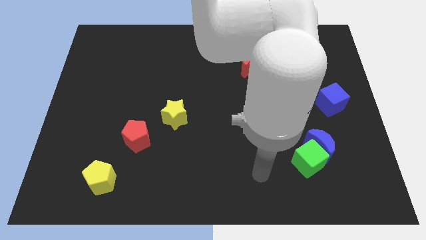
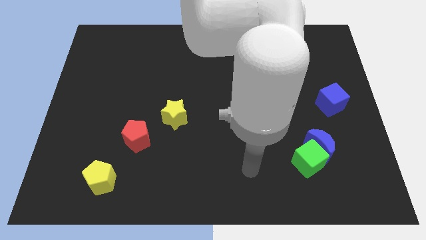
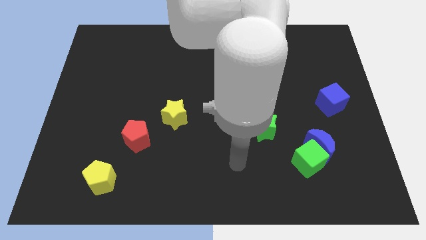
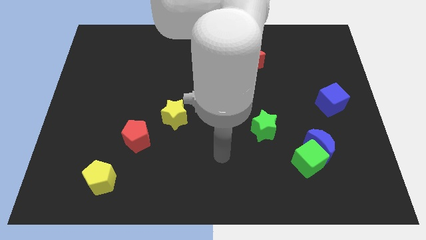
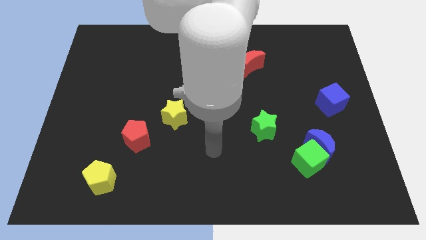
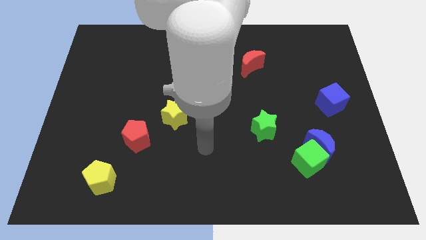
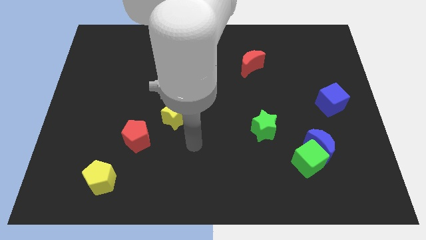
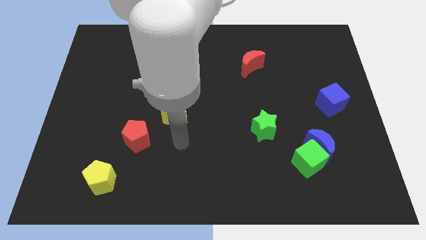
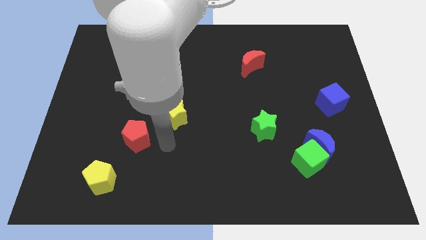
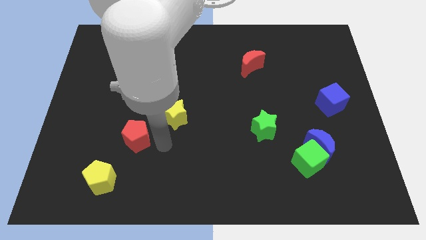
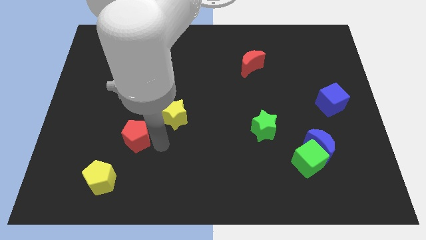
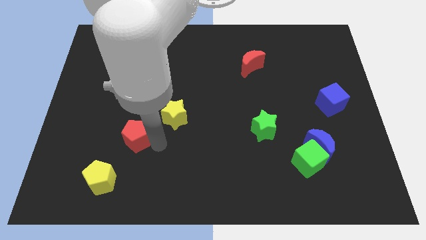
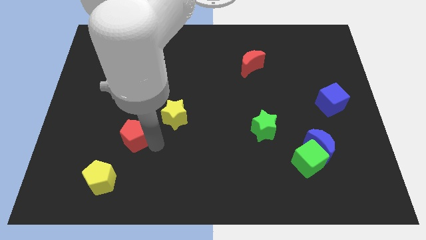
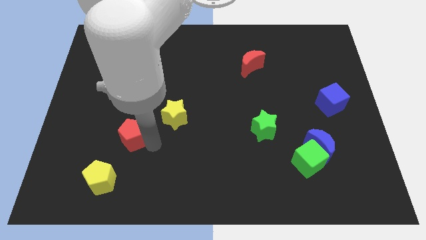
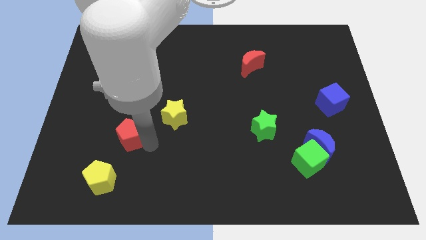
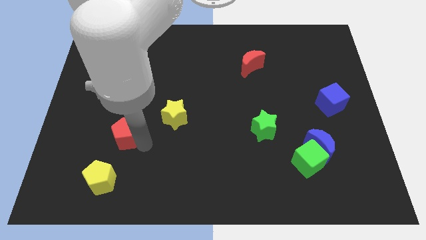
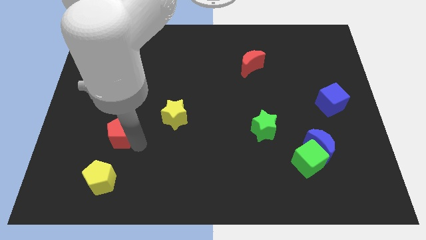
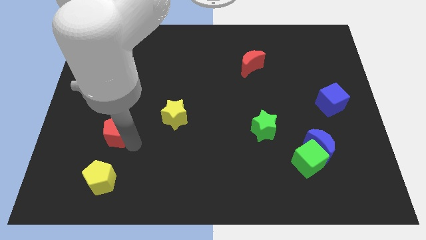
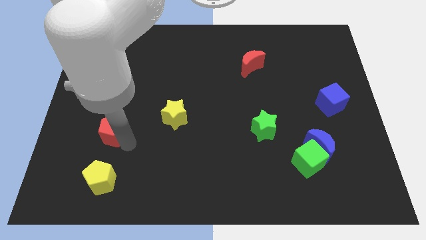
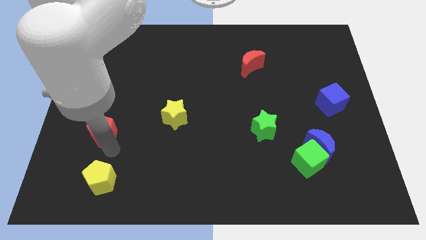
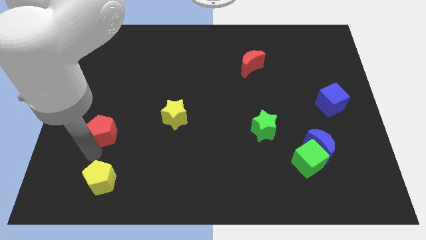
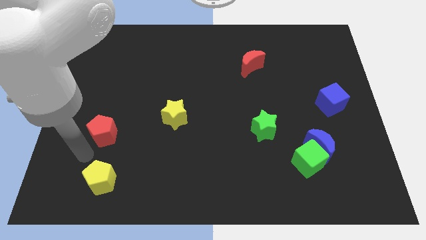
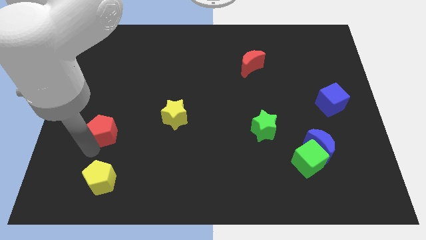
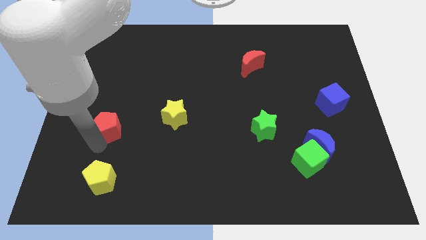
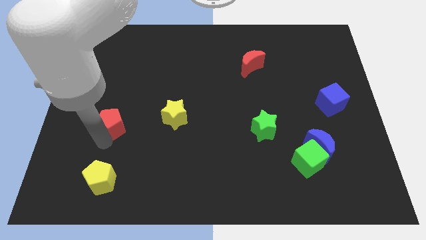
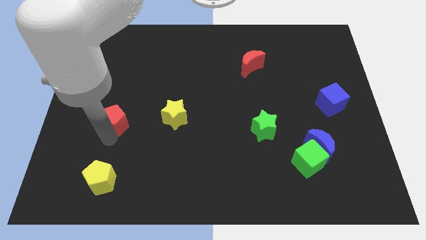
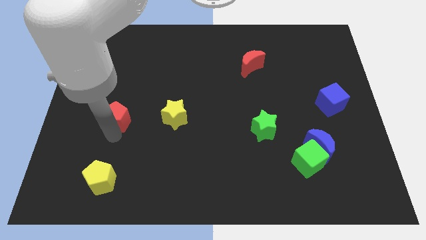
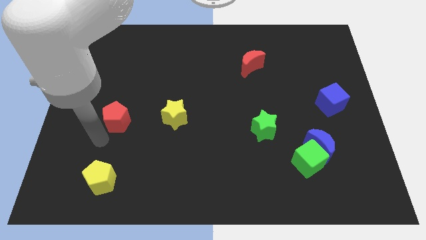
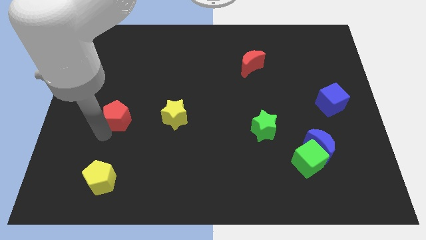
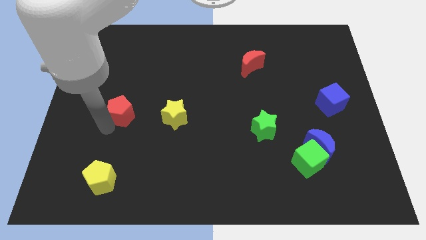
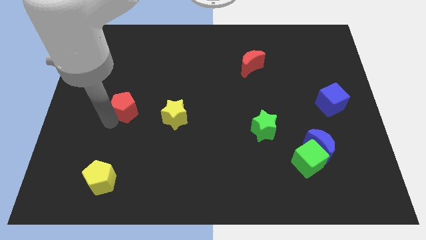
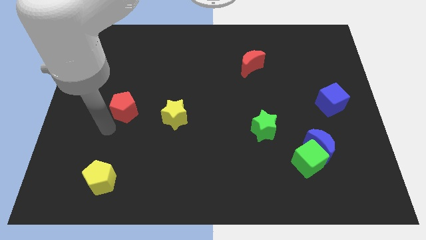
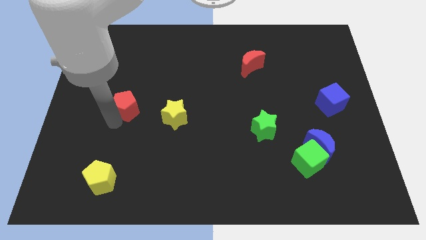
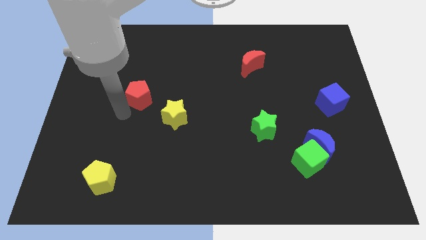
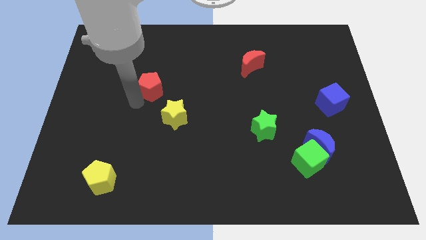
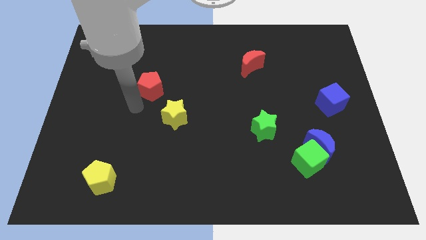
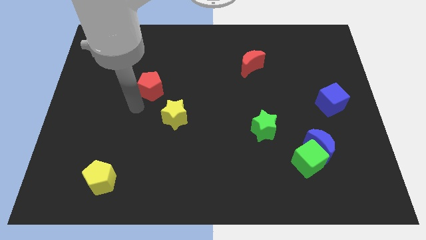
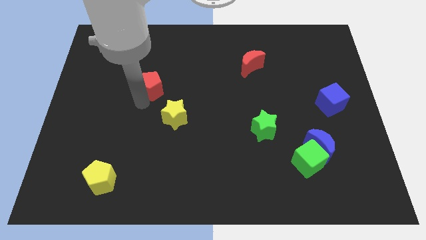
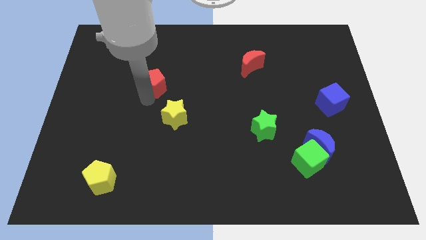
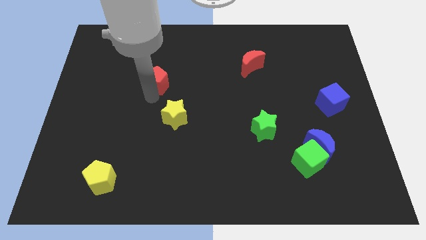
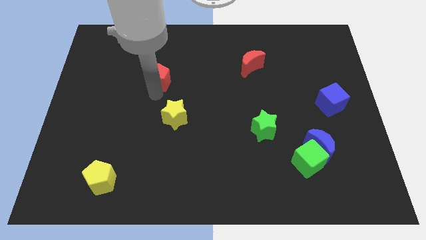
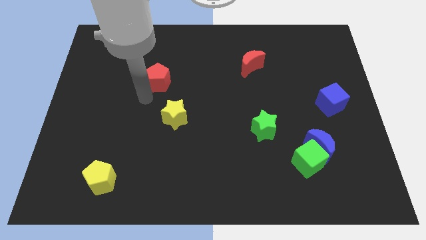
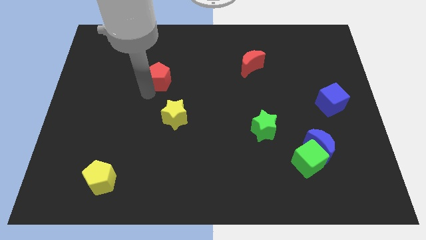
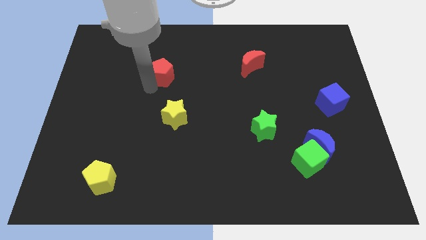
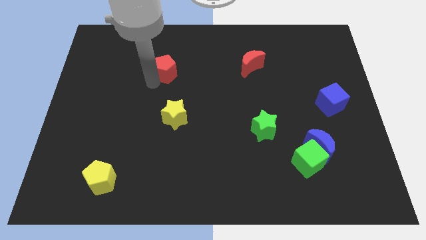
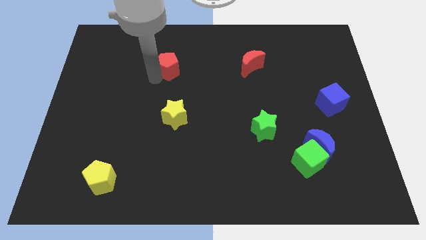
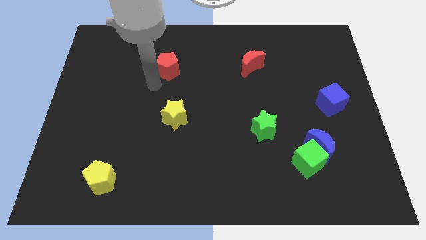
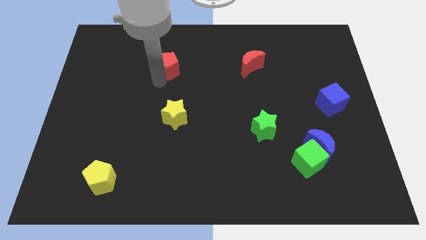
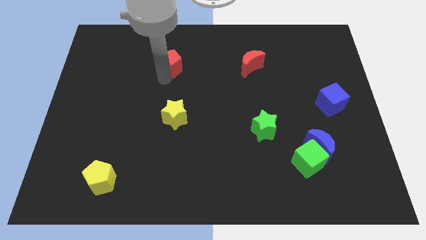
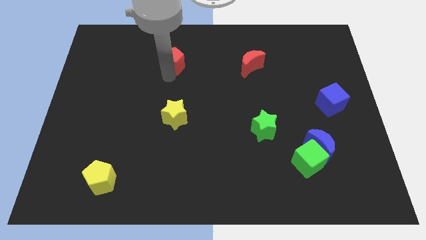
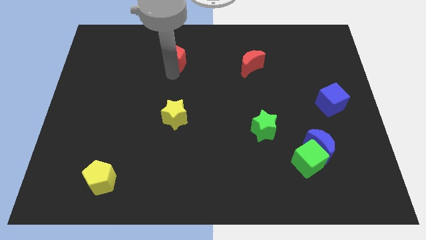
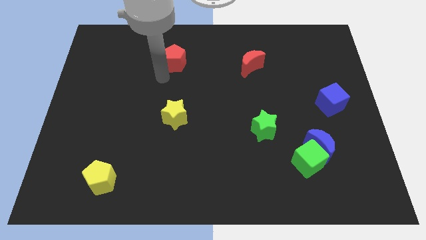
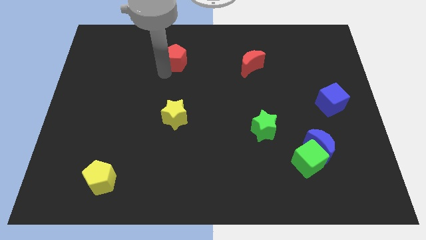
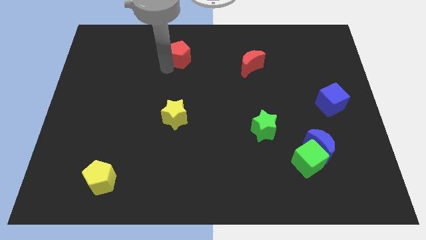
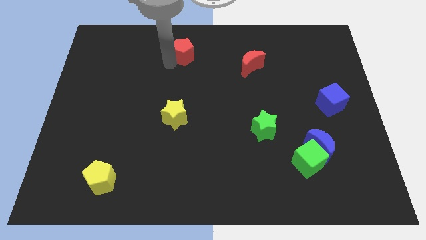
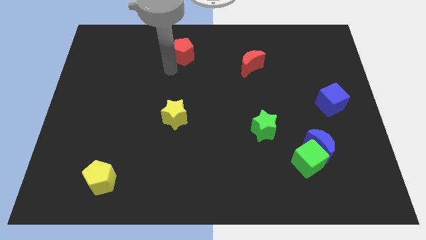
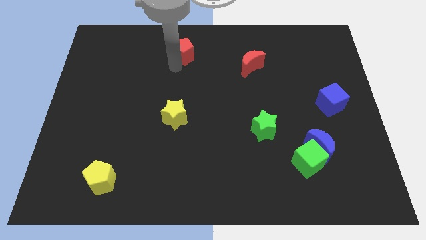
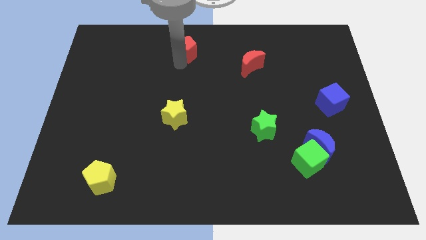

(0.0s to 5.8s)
push the red pentagon to the top

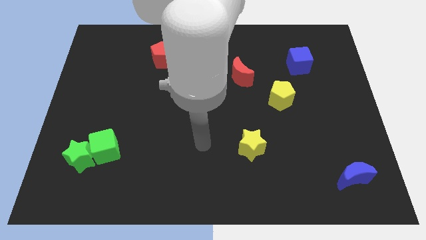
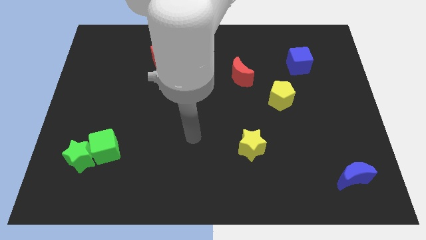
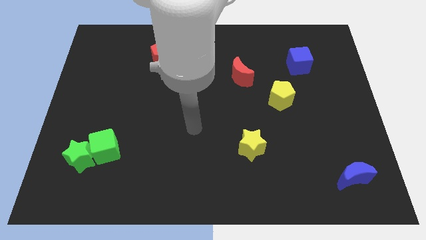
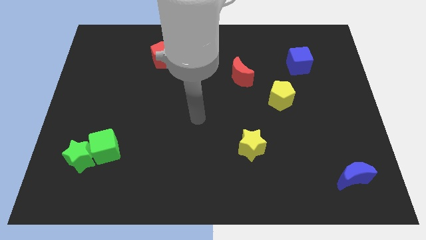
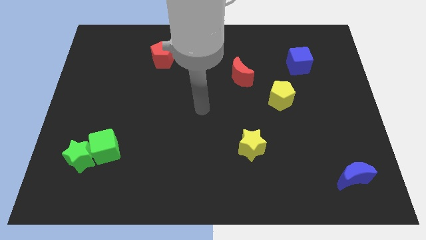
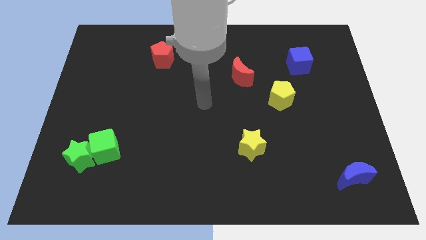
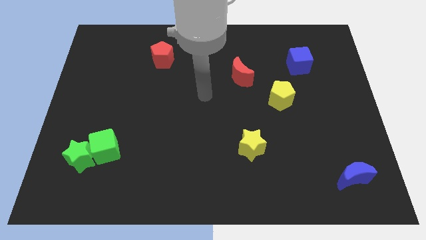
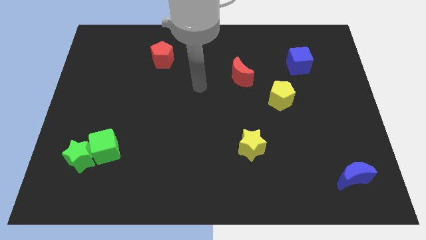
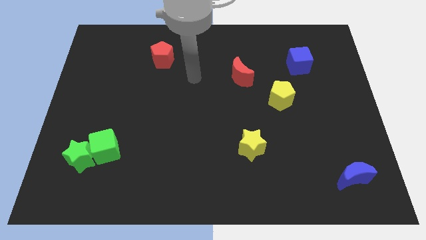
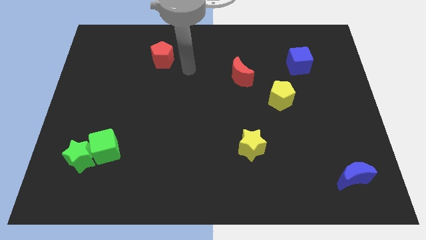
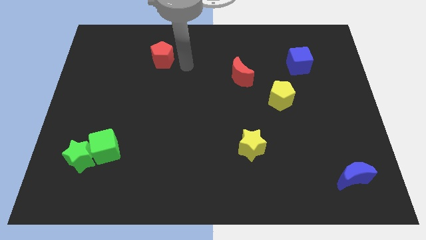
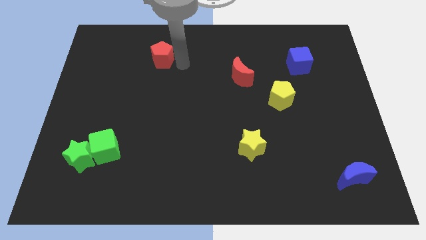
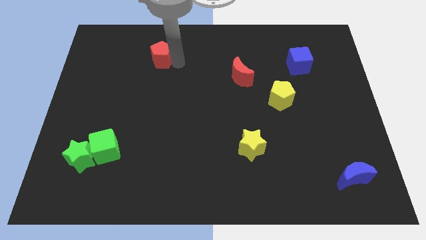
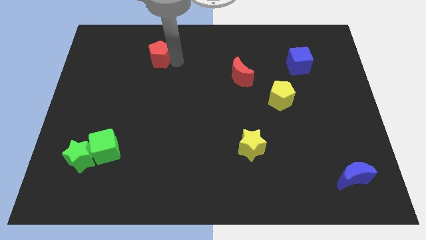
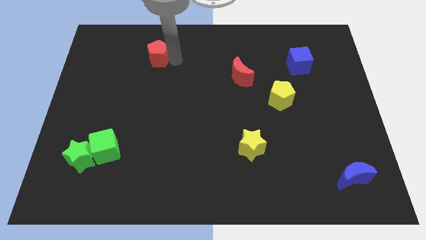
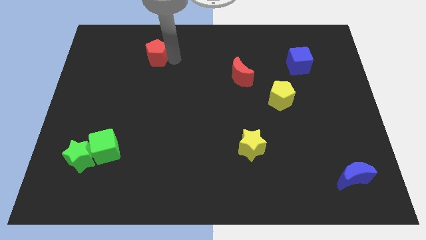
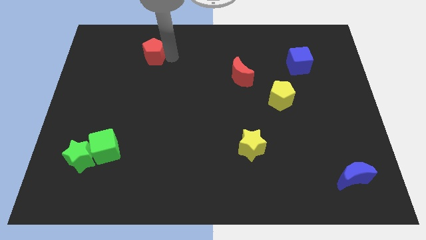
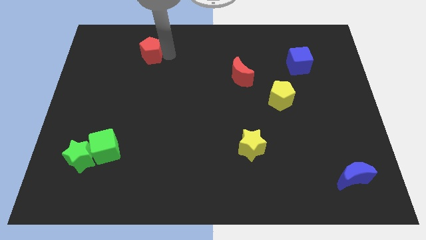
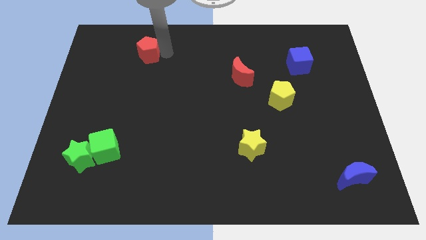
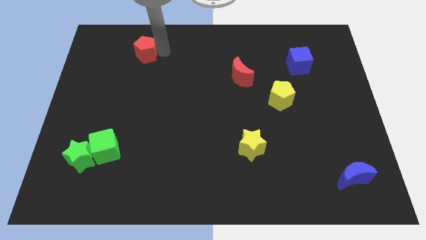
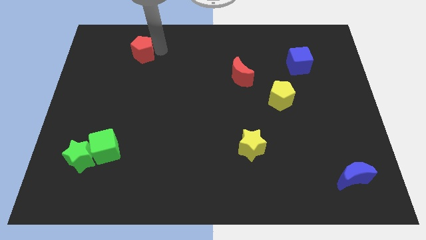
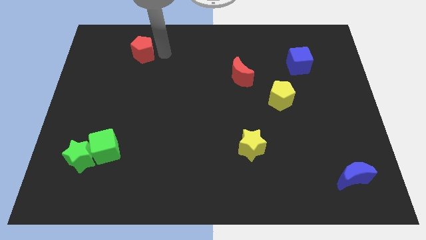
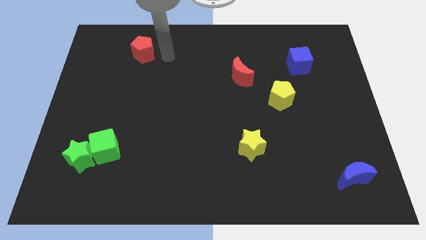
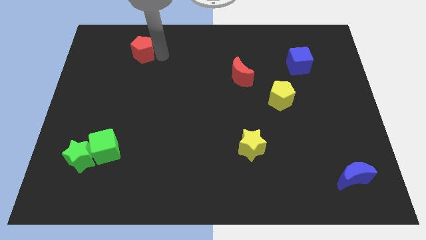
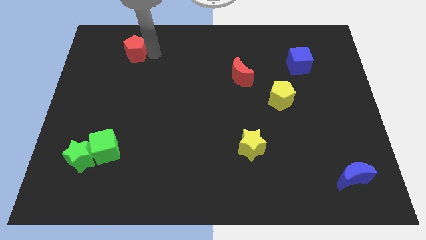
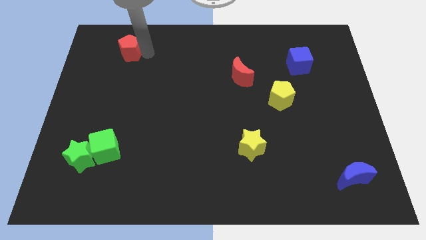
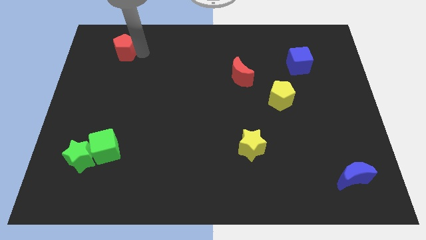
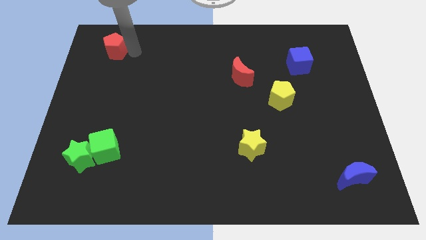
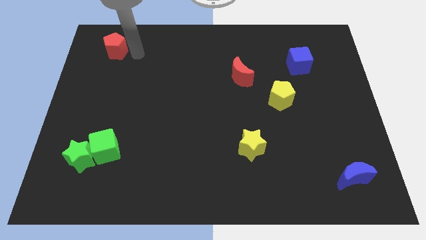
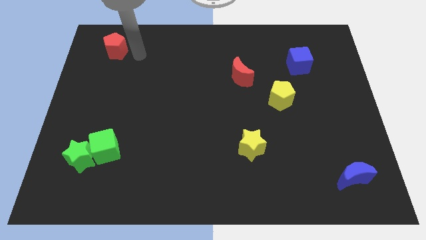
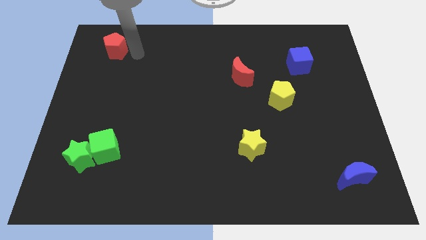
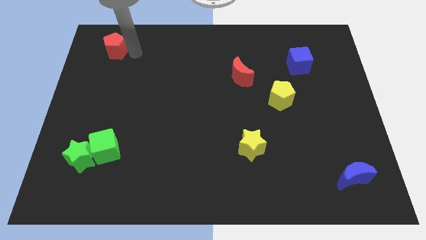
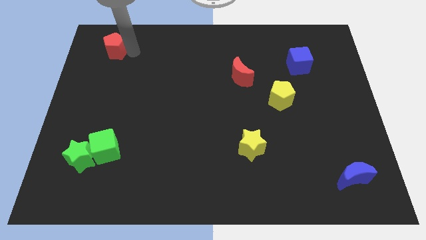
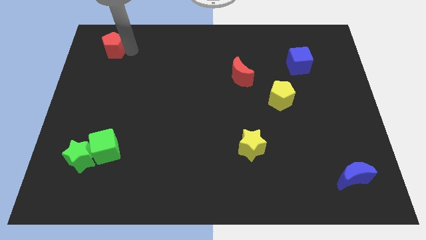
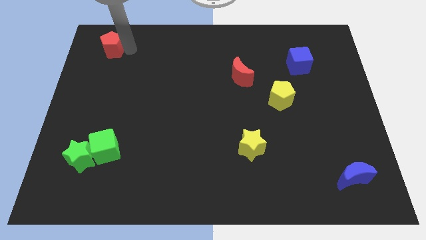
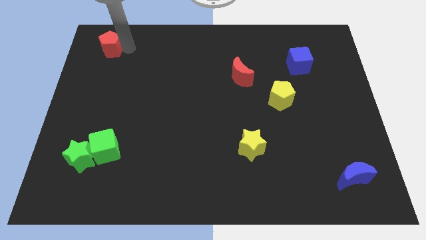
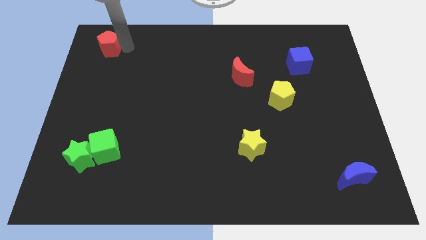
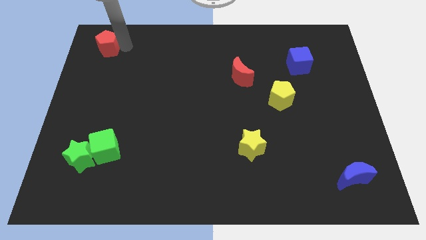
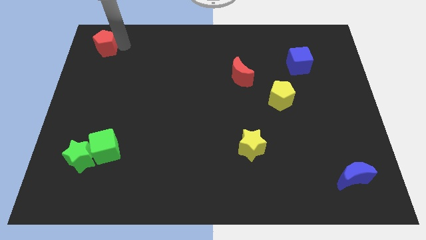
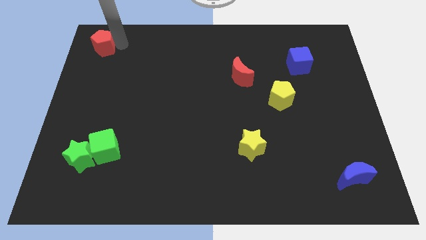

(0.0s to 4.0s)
slide the red pentagon to the upper left corner
